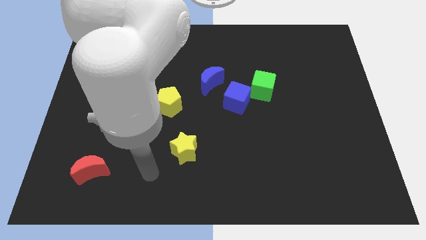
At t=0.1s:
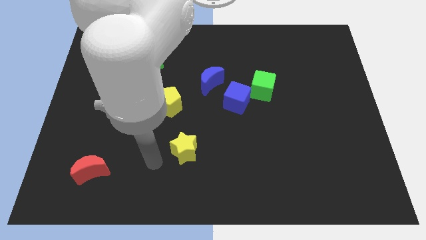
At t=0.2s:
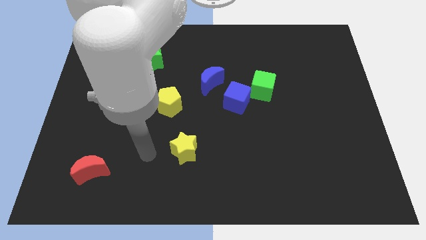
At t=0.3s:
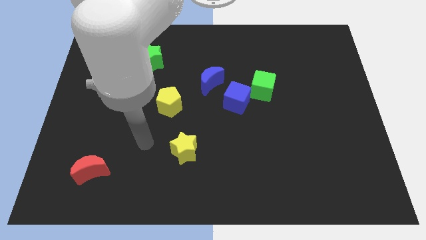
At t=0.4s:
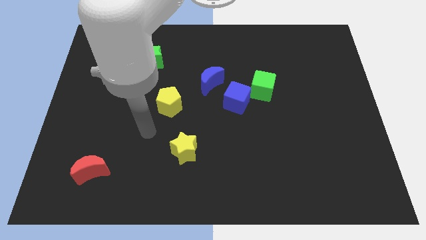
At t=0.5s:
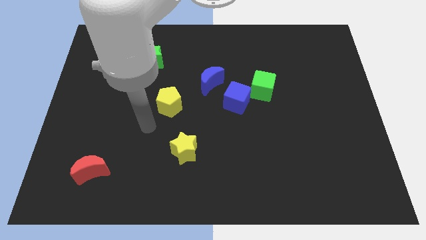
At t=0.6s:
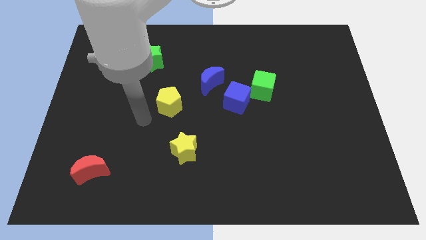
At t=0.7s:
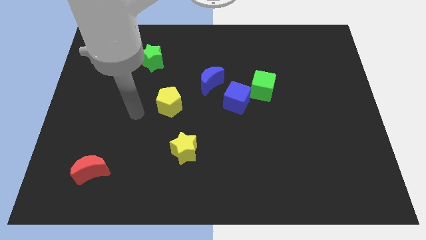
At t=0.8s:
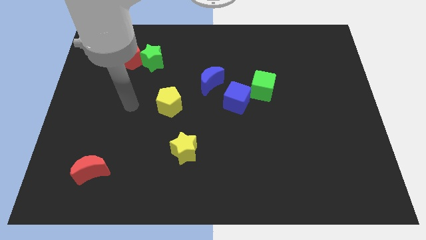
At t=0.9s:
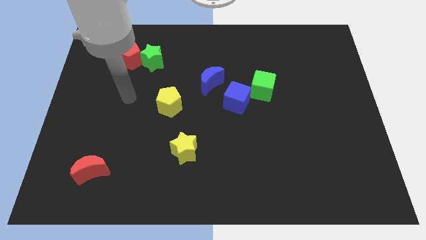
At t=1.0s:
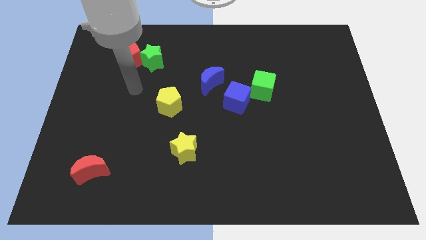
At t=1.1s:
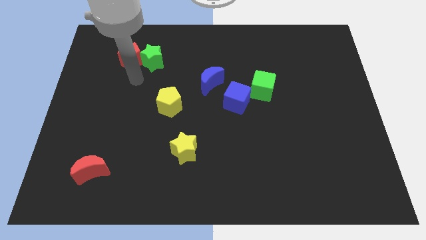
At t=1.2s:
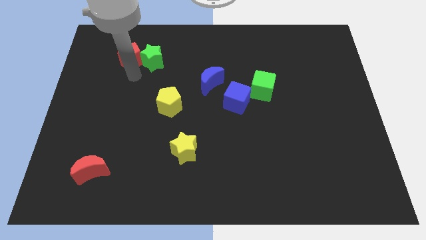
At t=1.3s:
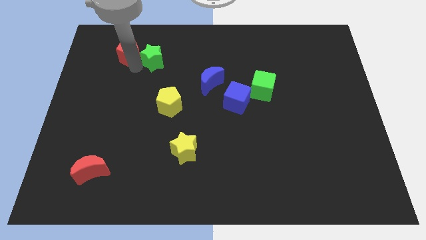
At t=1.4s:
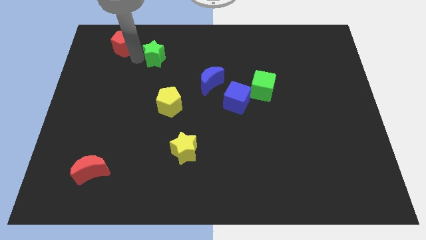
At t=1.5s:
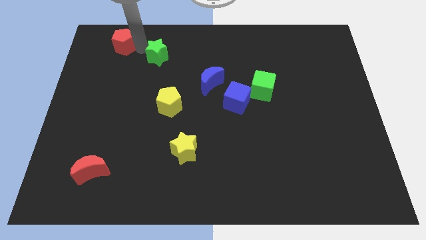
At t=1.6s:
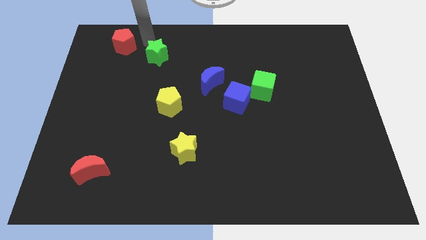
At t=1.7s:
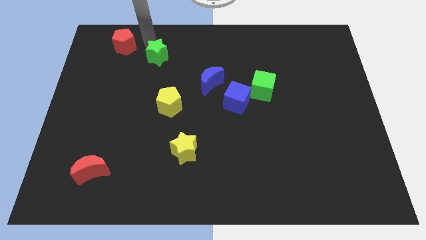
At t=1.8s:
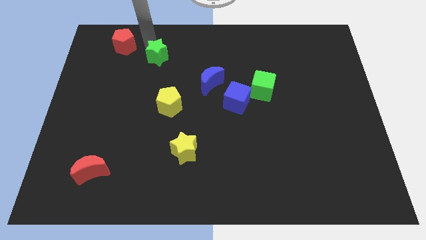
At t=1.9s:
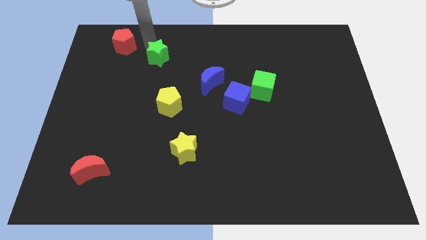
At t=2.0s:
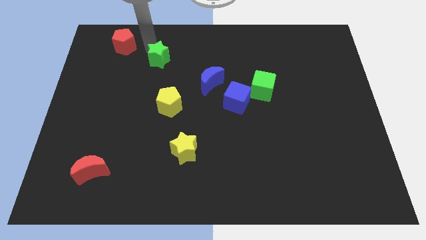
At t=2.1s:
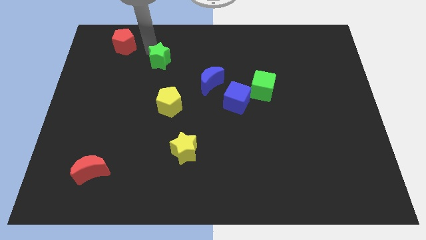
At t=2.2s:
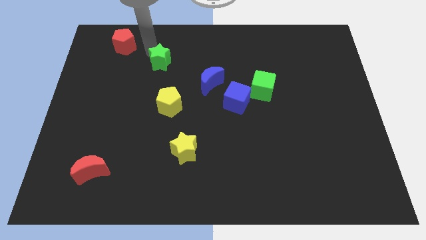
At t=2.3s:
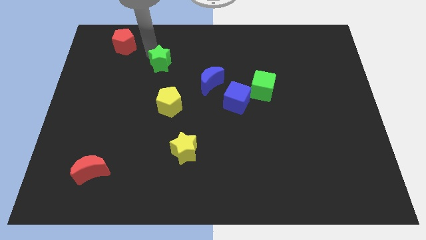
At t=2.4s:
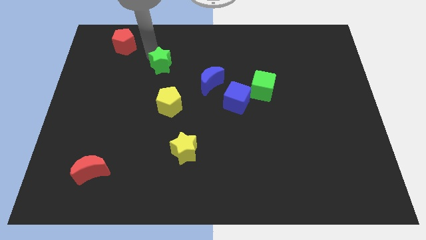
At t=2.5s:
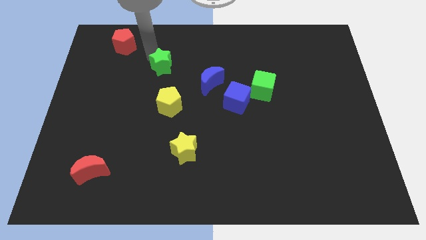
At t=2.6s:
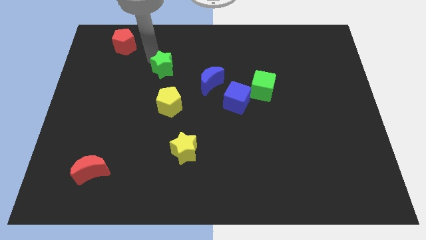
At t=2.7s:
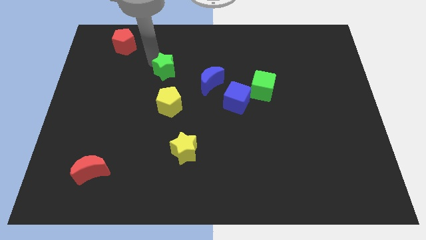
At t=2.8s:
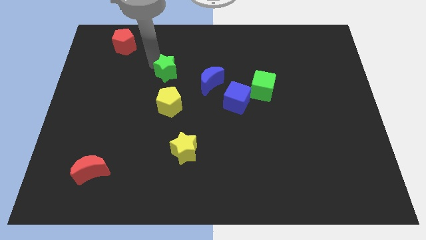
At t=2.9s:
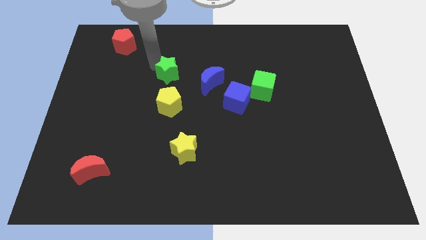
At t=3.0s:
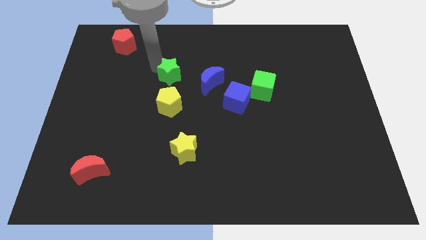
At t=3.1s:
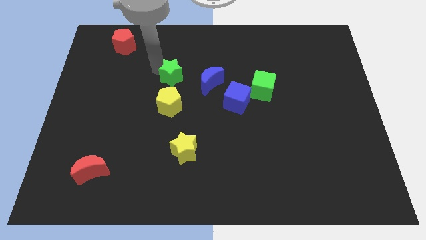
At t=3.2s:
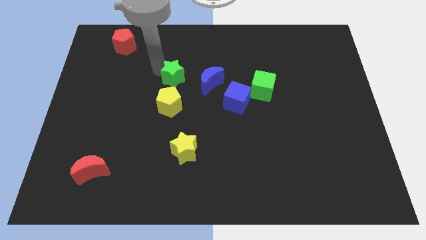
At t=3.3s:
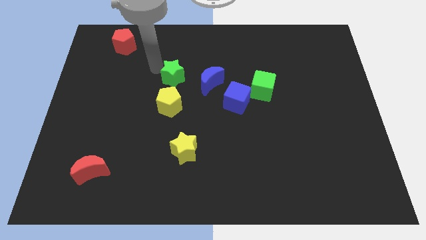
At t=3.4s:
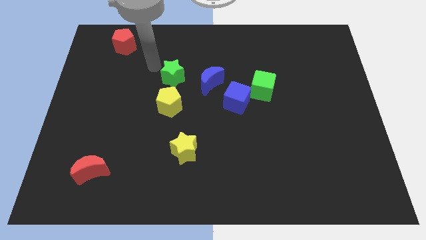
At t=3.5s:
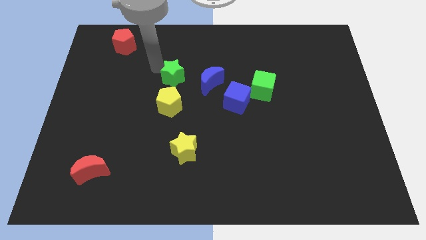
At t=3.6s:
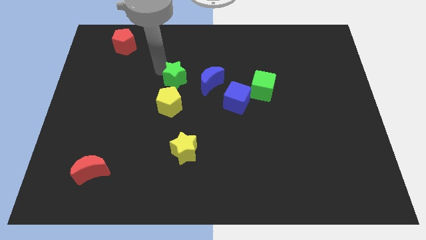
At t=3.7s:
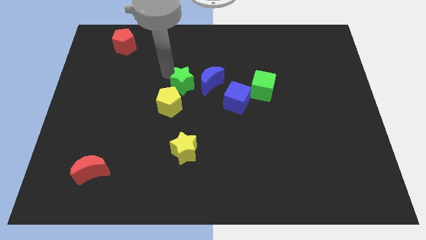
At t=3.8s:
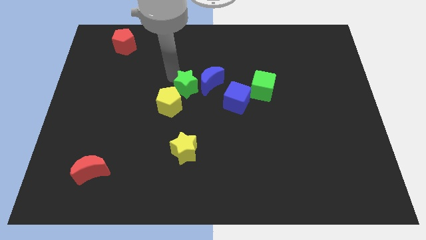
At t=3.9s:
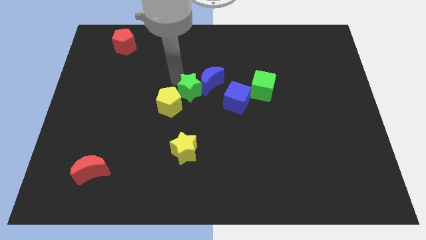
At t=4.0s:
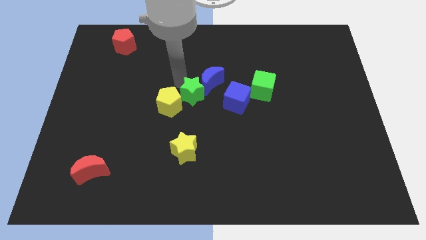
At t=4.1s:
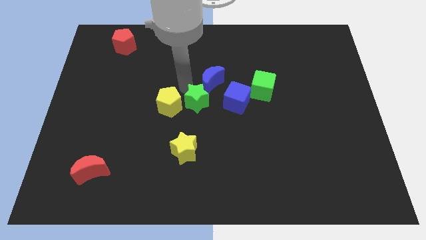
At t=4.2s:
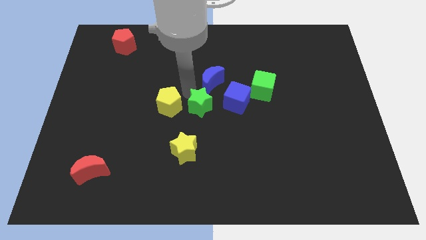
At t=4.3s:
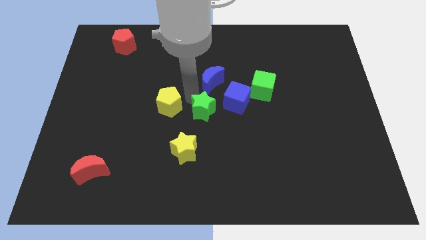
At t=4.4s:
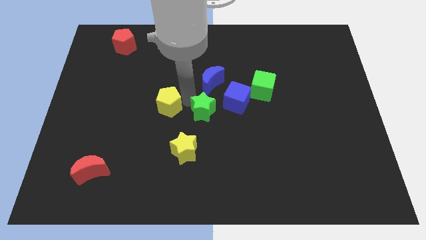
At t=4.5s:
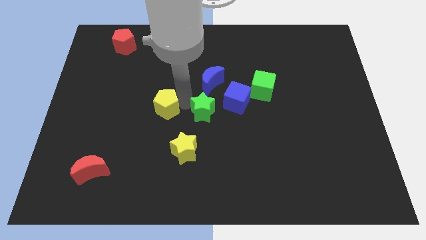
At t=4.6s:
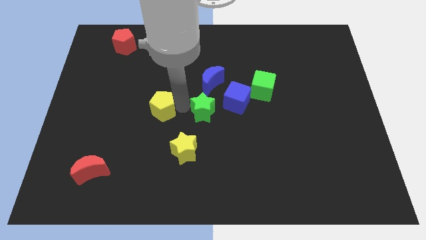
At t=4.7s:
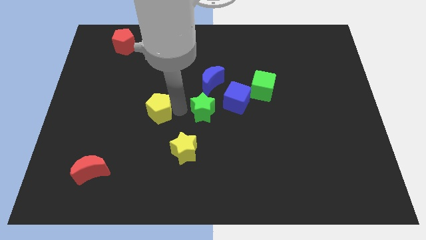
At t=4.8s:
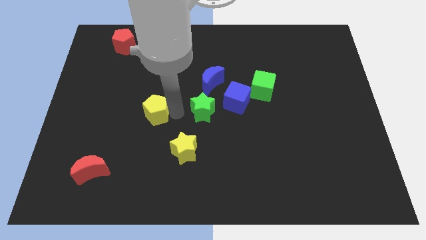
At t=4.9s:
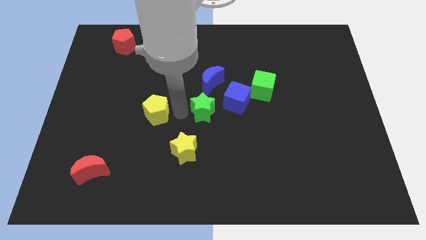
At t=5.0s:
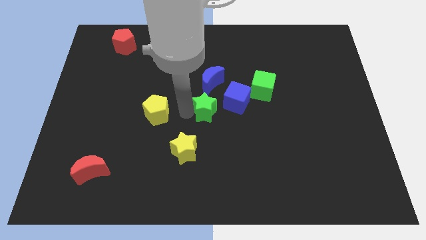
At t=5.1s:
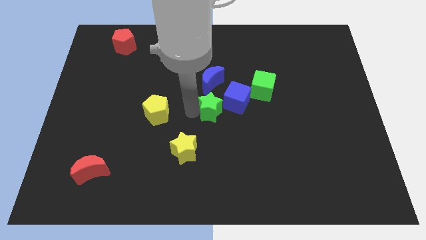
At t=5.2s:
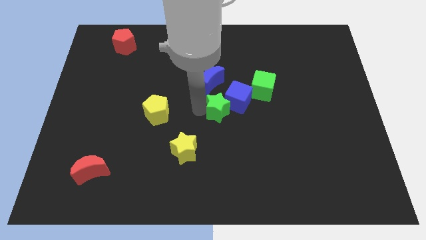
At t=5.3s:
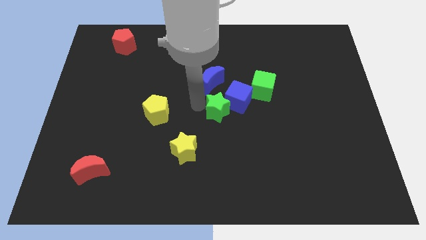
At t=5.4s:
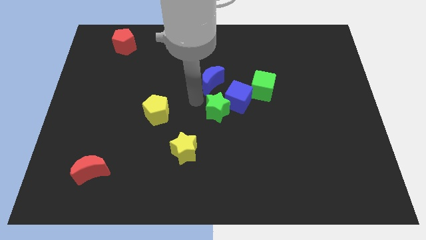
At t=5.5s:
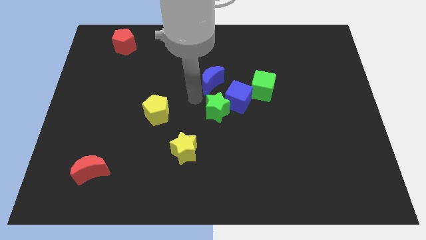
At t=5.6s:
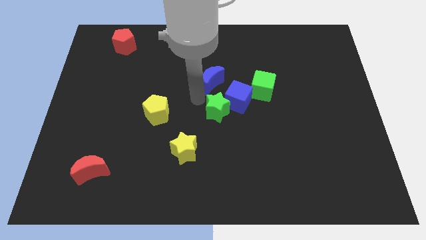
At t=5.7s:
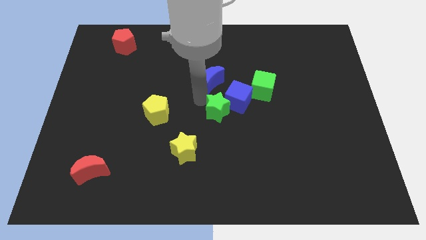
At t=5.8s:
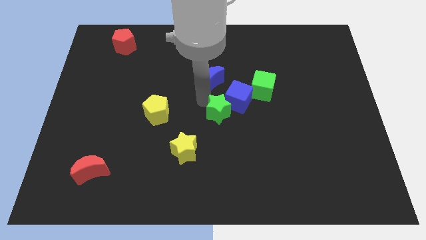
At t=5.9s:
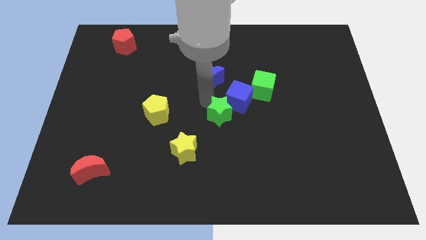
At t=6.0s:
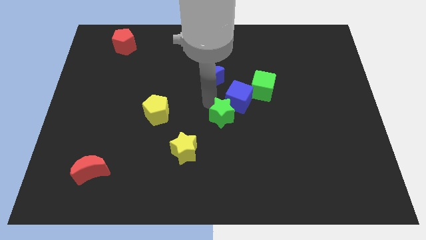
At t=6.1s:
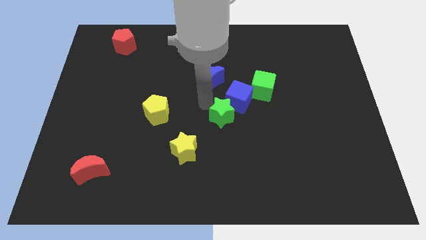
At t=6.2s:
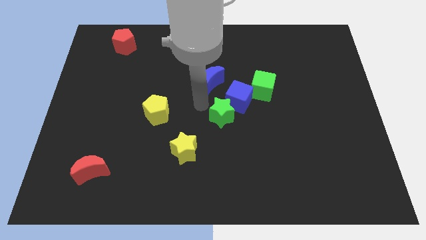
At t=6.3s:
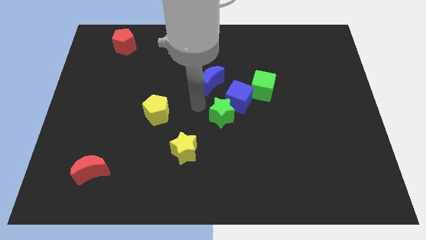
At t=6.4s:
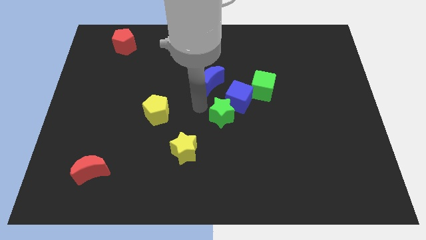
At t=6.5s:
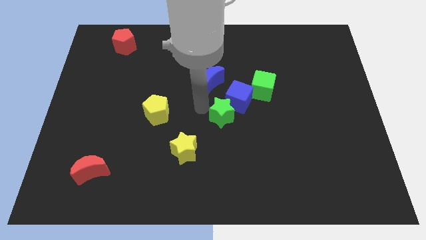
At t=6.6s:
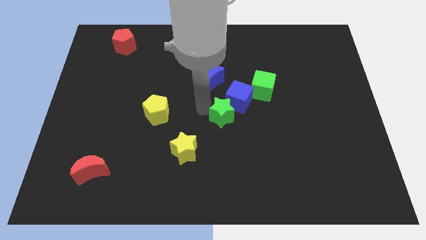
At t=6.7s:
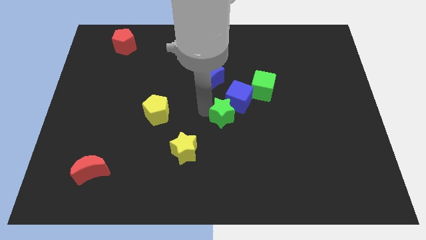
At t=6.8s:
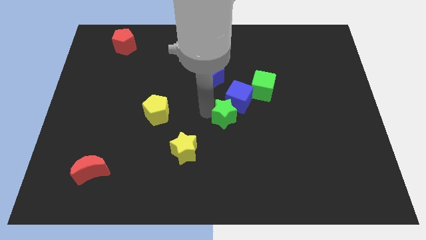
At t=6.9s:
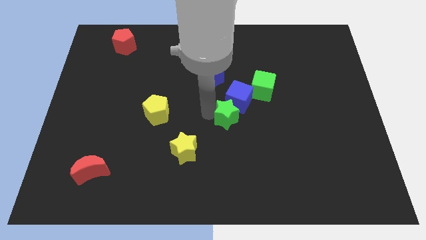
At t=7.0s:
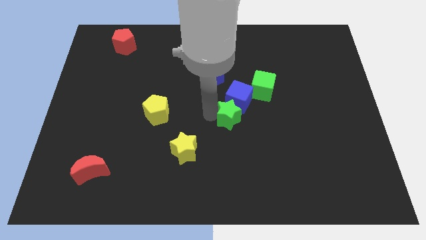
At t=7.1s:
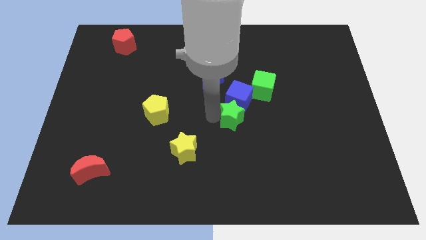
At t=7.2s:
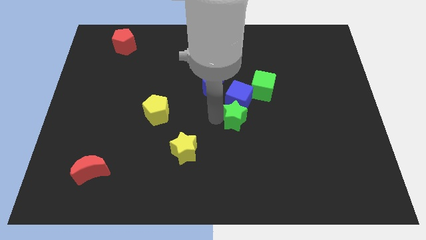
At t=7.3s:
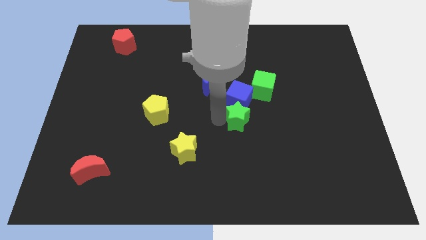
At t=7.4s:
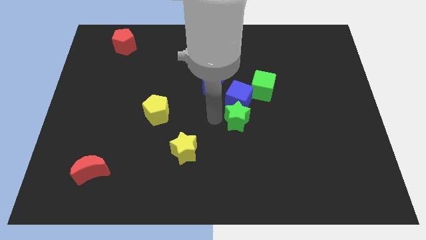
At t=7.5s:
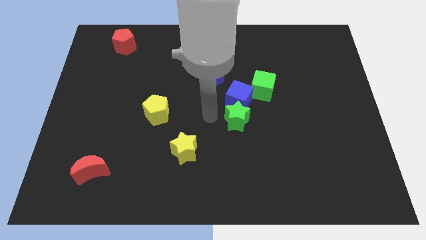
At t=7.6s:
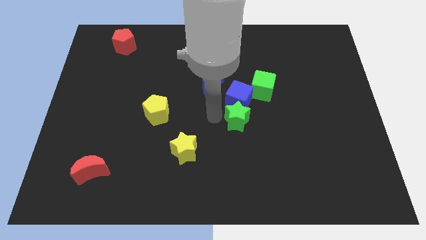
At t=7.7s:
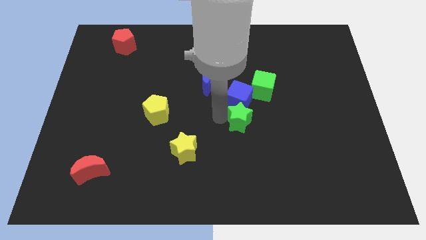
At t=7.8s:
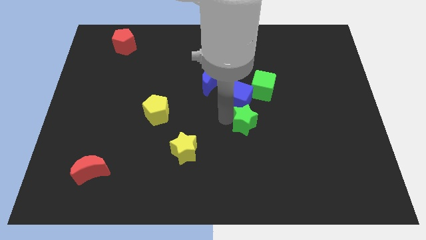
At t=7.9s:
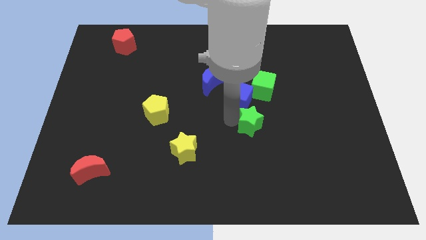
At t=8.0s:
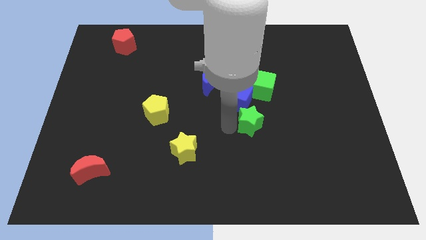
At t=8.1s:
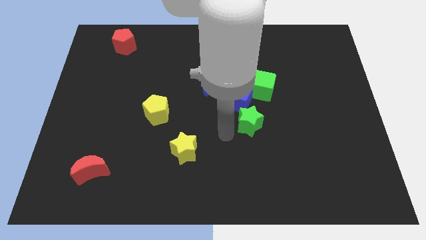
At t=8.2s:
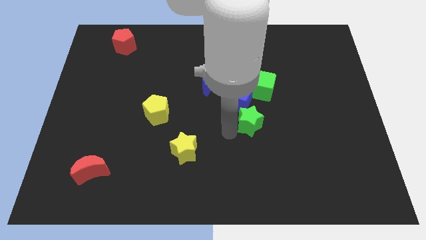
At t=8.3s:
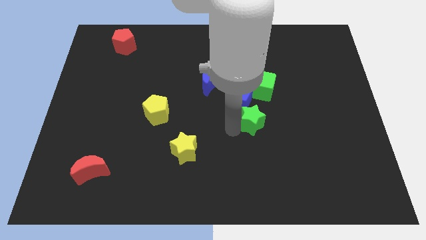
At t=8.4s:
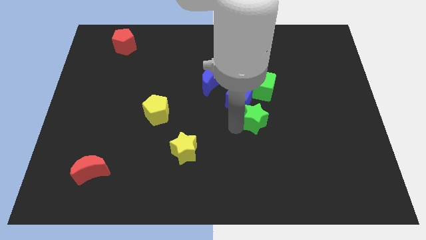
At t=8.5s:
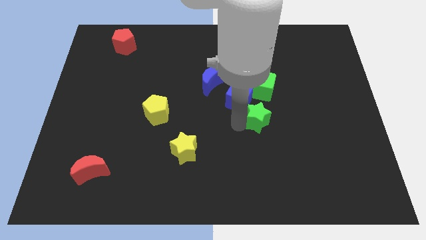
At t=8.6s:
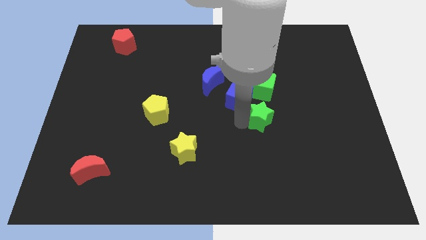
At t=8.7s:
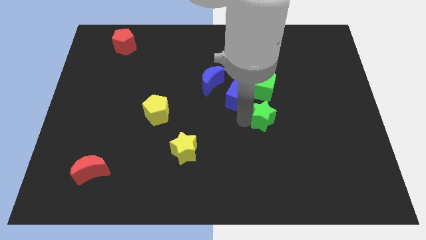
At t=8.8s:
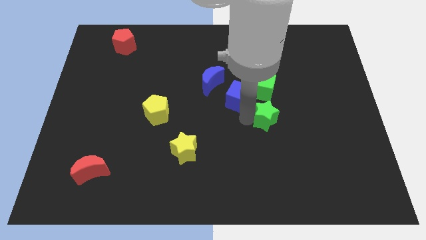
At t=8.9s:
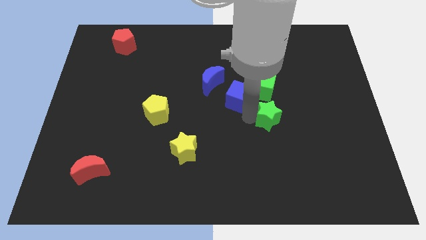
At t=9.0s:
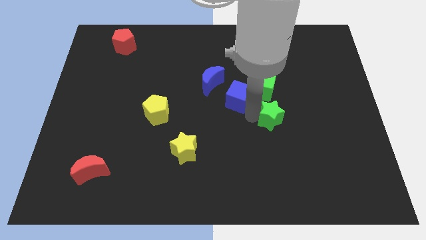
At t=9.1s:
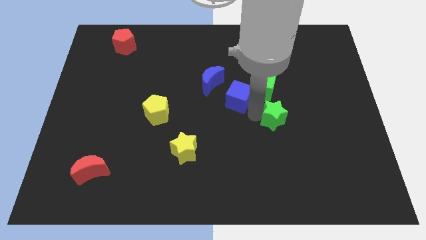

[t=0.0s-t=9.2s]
push the green star to the bottom right side of the green cube
